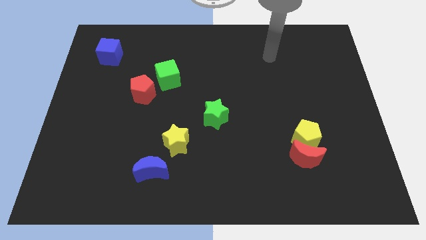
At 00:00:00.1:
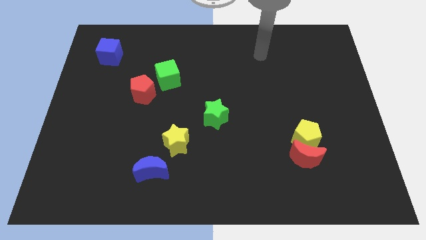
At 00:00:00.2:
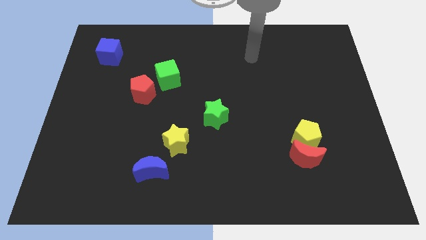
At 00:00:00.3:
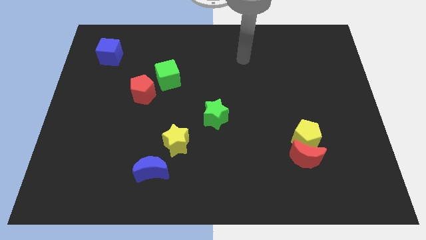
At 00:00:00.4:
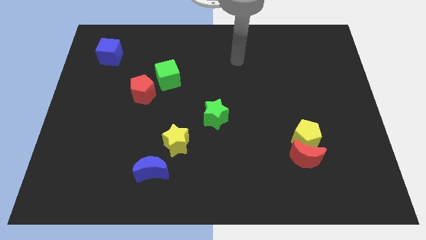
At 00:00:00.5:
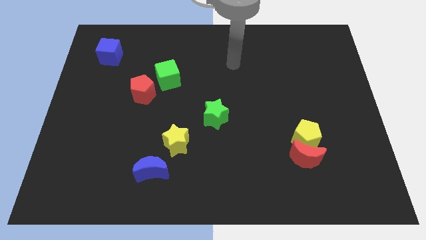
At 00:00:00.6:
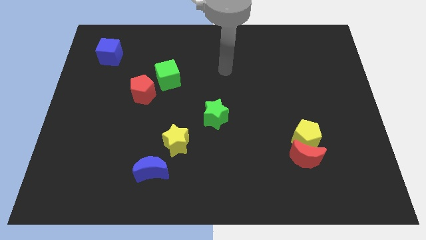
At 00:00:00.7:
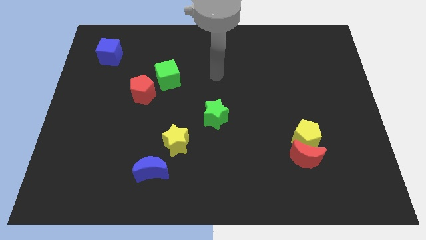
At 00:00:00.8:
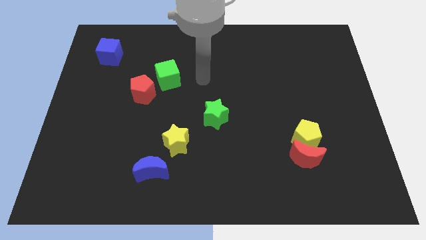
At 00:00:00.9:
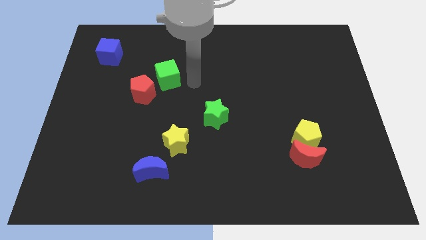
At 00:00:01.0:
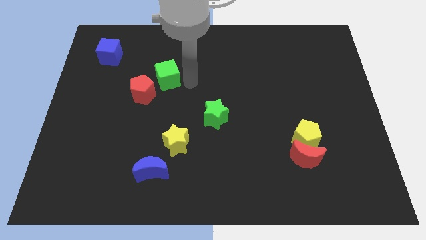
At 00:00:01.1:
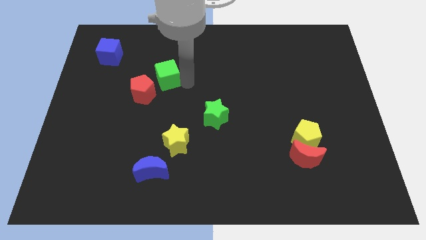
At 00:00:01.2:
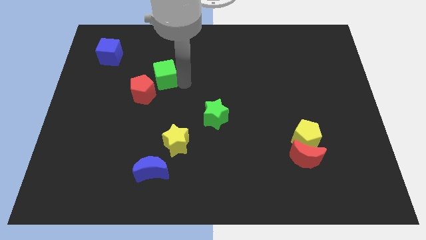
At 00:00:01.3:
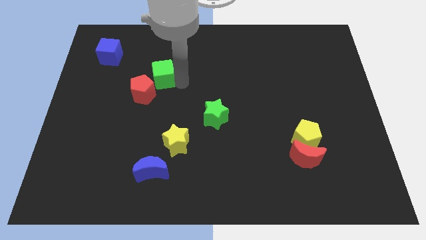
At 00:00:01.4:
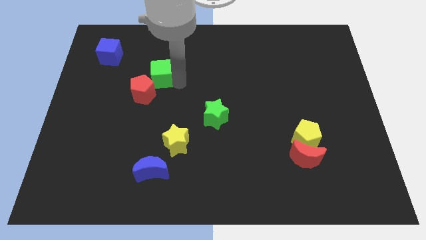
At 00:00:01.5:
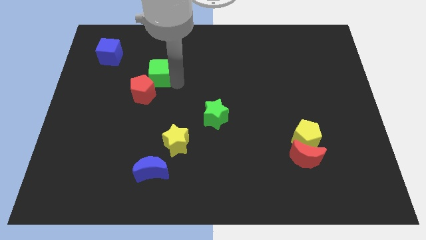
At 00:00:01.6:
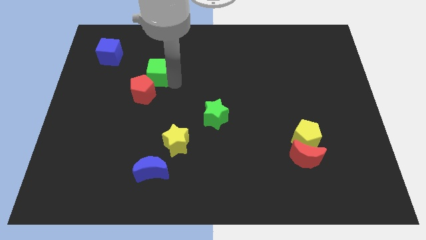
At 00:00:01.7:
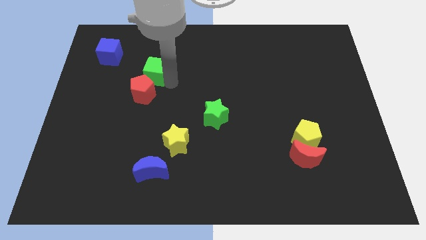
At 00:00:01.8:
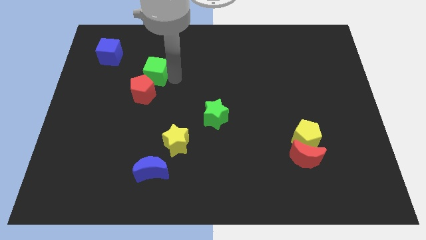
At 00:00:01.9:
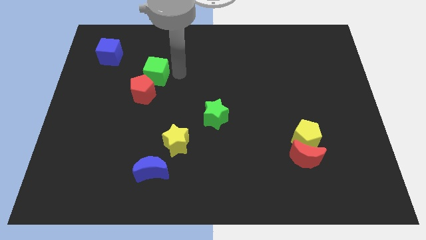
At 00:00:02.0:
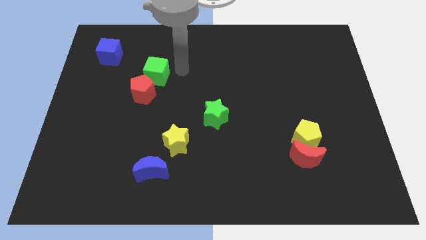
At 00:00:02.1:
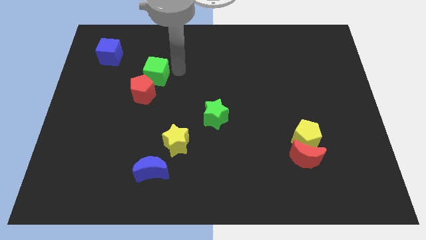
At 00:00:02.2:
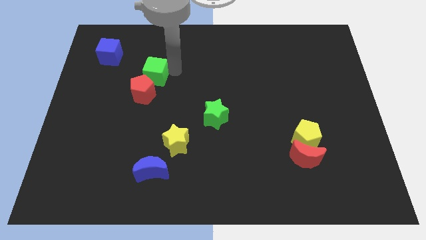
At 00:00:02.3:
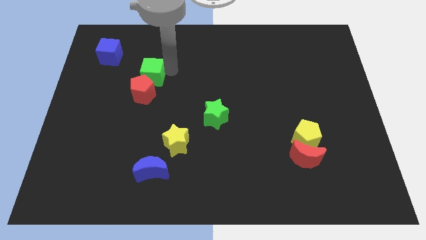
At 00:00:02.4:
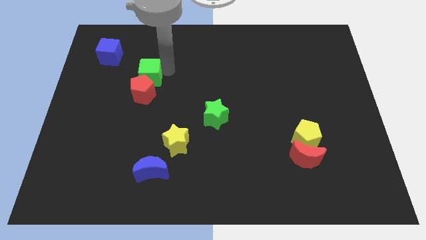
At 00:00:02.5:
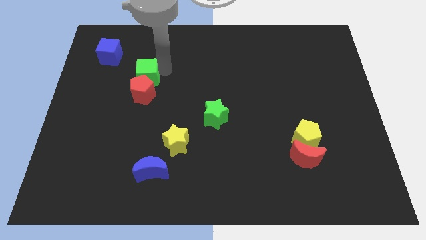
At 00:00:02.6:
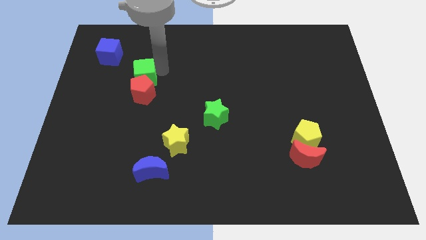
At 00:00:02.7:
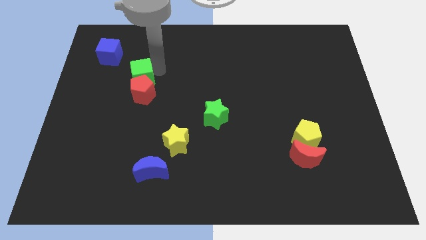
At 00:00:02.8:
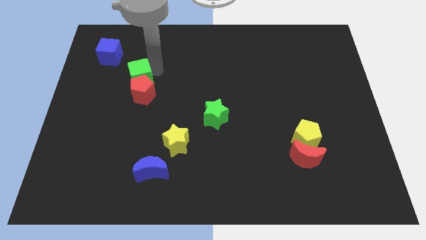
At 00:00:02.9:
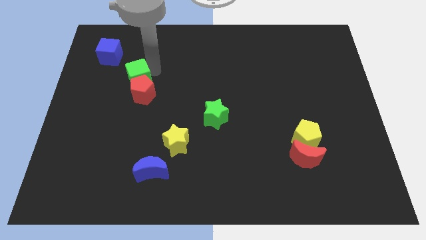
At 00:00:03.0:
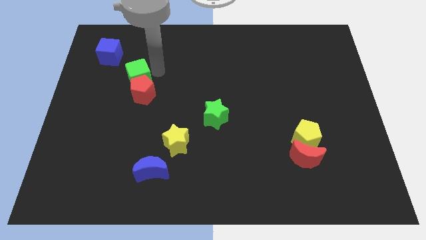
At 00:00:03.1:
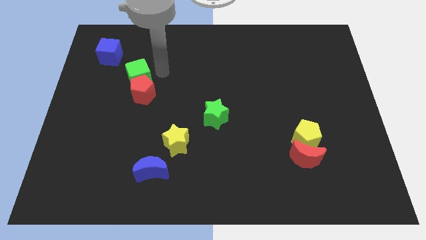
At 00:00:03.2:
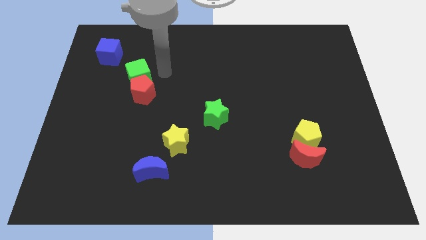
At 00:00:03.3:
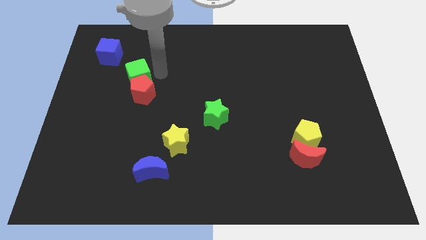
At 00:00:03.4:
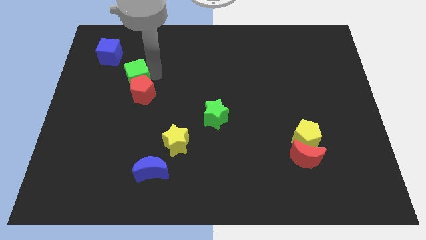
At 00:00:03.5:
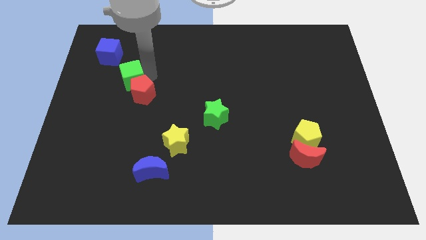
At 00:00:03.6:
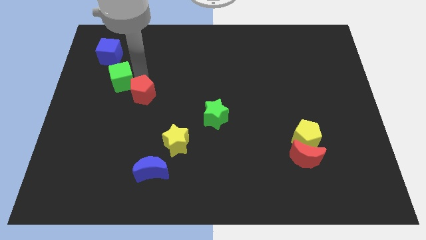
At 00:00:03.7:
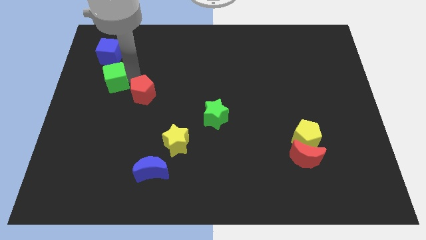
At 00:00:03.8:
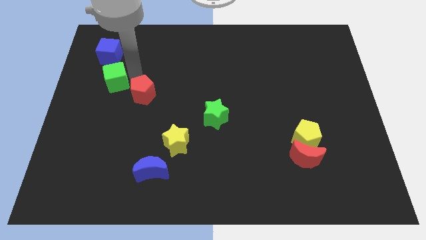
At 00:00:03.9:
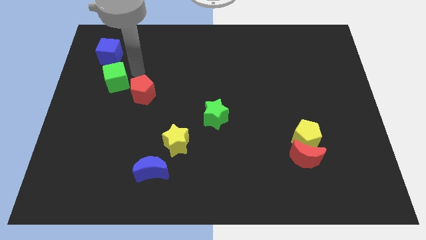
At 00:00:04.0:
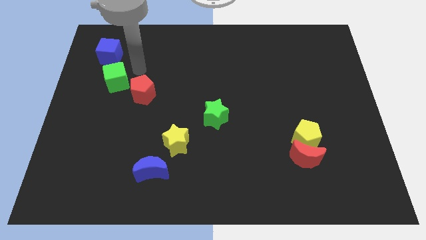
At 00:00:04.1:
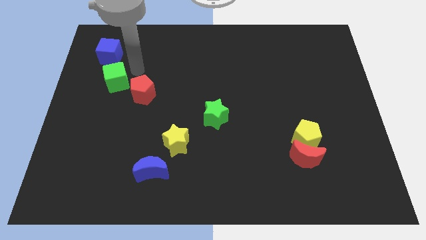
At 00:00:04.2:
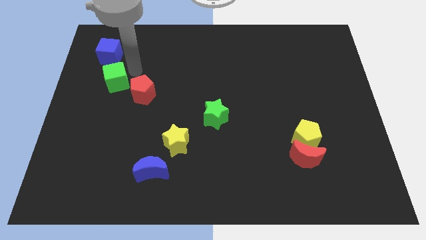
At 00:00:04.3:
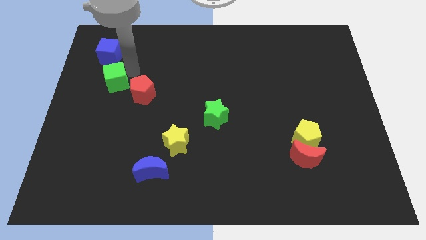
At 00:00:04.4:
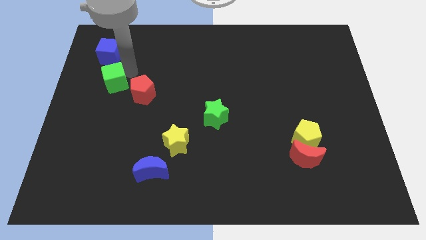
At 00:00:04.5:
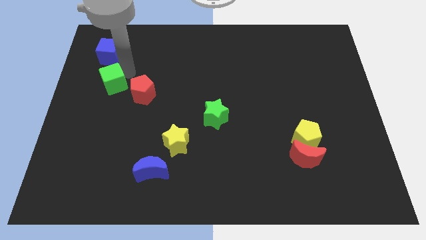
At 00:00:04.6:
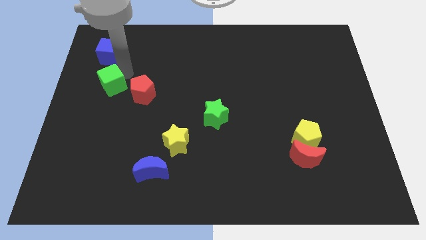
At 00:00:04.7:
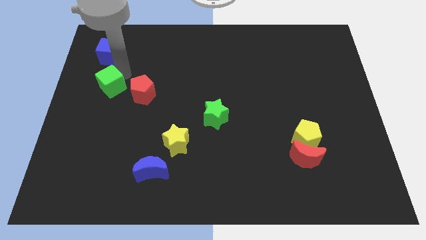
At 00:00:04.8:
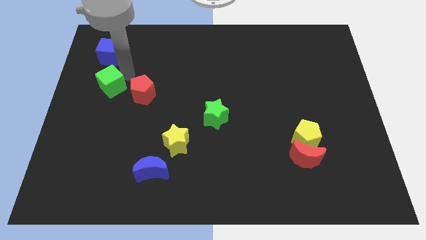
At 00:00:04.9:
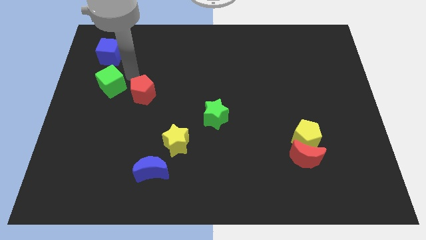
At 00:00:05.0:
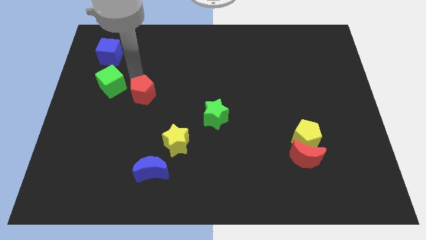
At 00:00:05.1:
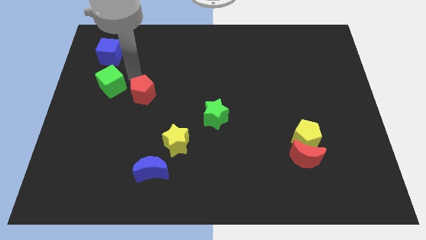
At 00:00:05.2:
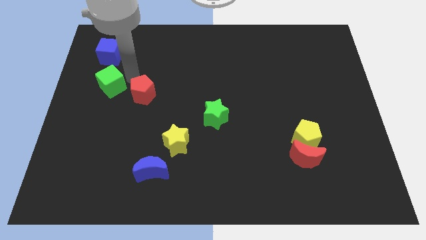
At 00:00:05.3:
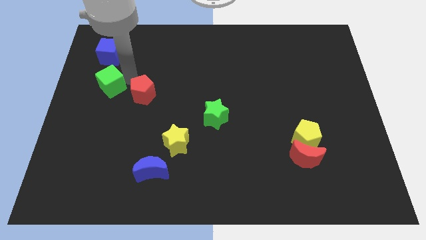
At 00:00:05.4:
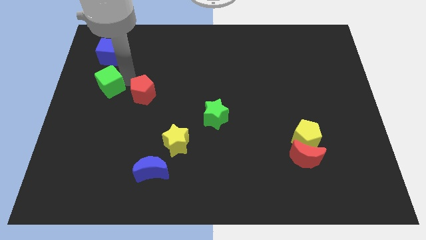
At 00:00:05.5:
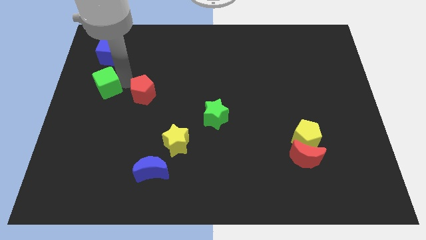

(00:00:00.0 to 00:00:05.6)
slide the green cube to the left side
